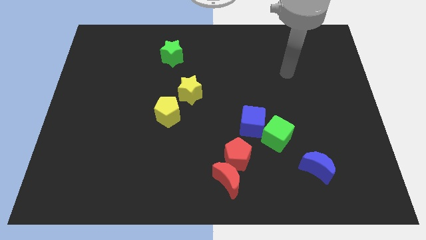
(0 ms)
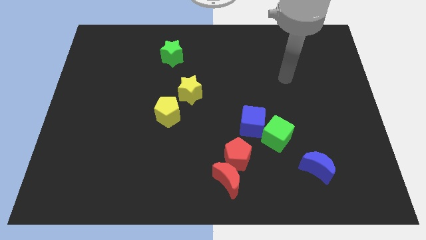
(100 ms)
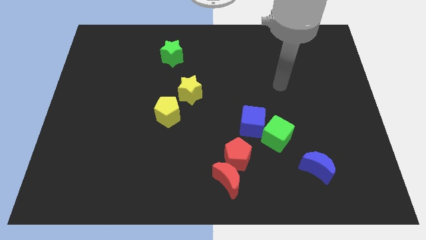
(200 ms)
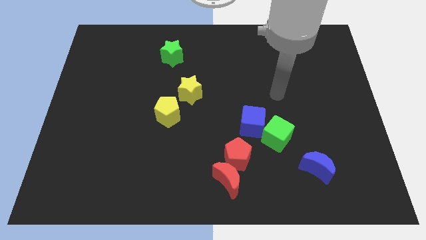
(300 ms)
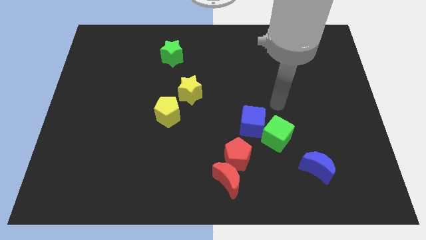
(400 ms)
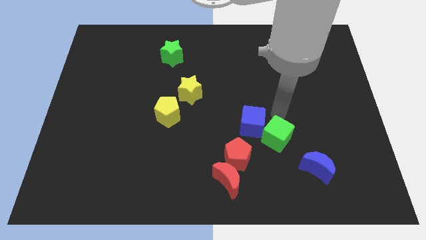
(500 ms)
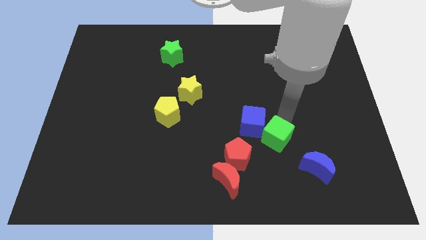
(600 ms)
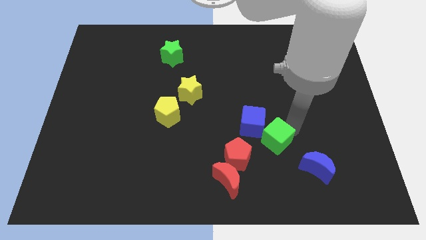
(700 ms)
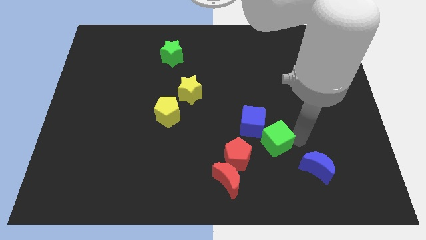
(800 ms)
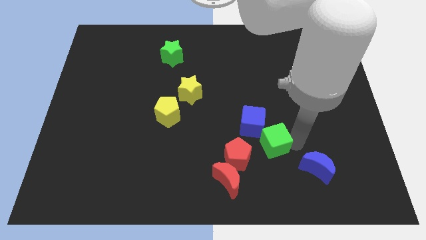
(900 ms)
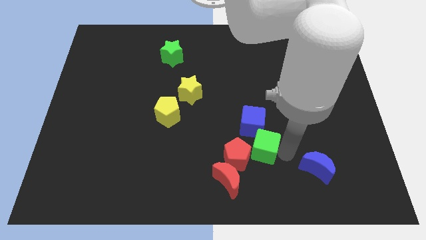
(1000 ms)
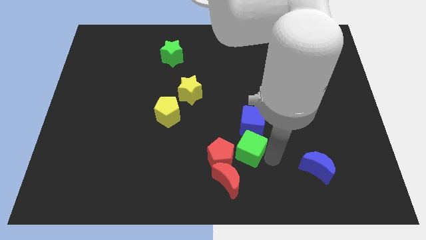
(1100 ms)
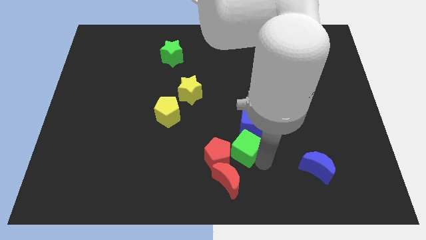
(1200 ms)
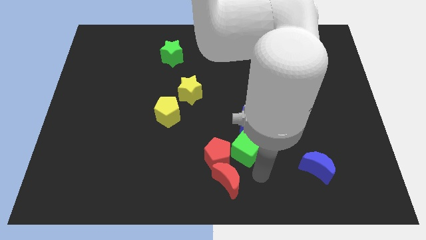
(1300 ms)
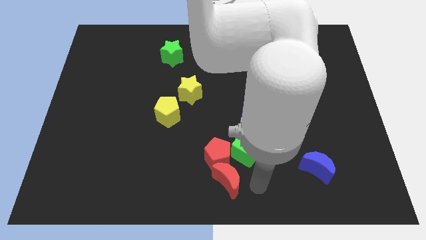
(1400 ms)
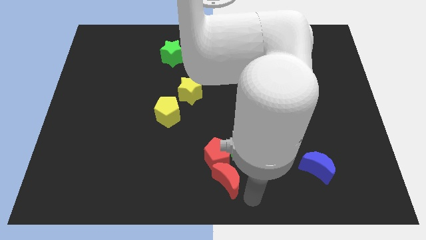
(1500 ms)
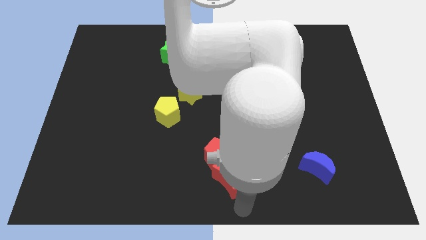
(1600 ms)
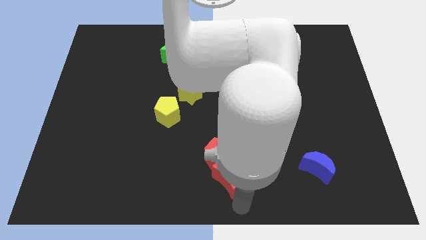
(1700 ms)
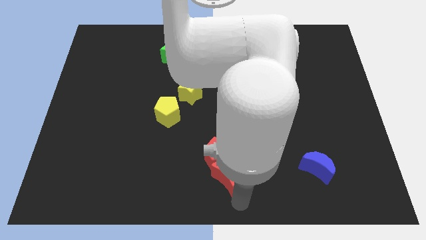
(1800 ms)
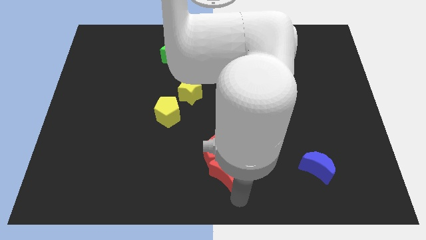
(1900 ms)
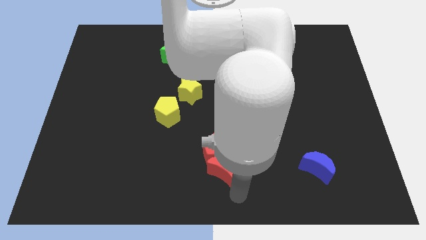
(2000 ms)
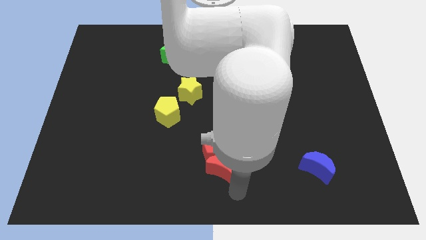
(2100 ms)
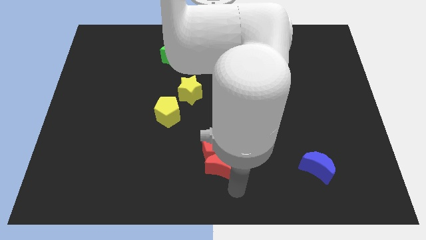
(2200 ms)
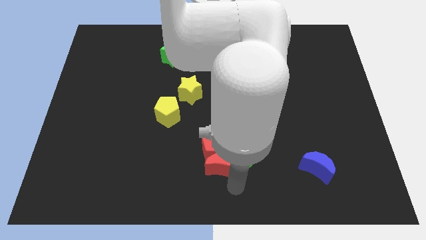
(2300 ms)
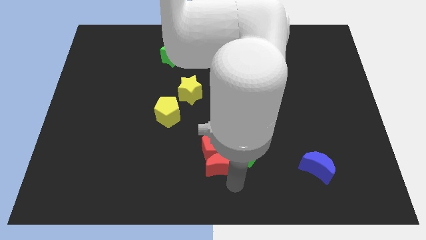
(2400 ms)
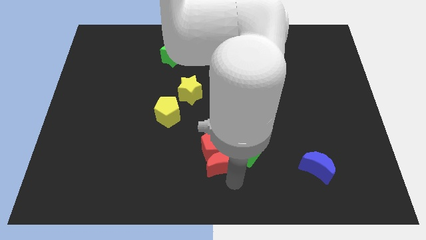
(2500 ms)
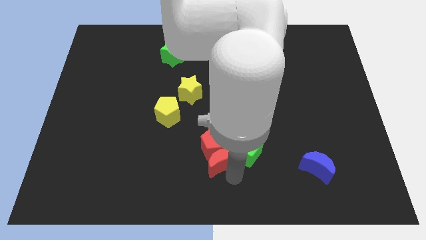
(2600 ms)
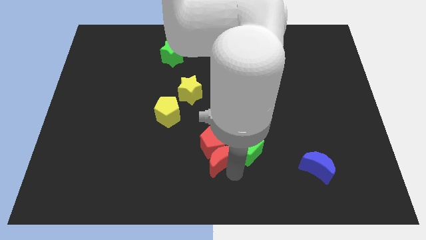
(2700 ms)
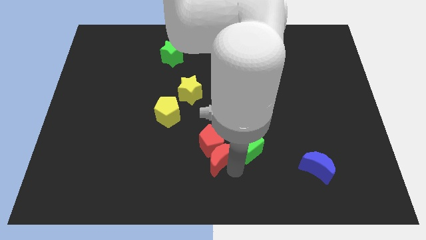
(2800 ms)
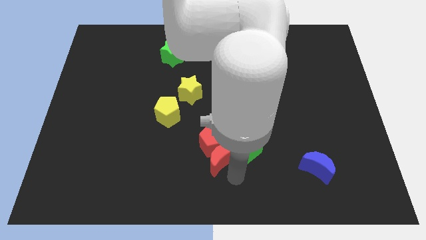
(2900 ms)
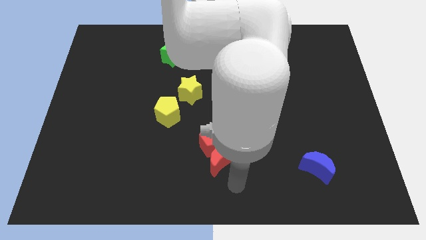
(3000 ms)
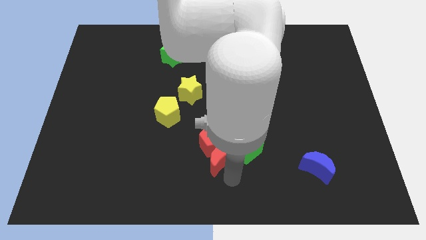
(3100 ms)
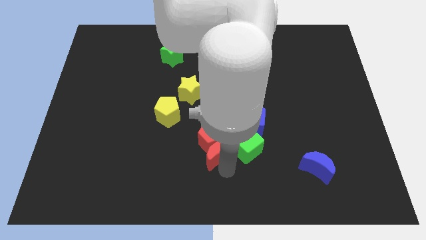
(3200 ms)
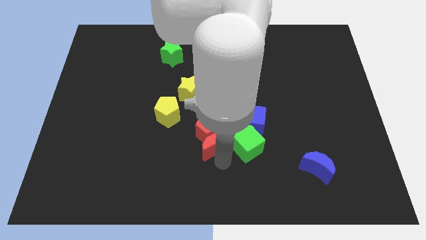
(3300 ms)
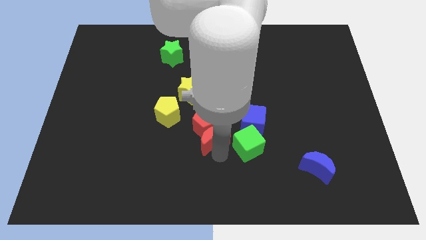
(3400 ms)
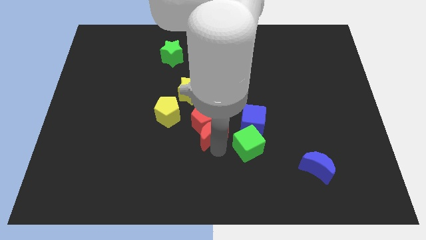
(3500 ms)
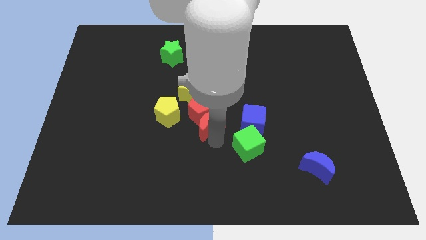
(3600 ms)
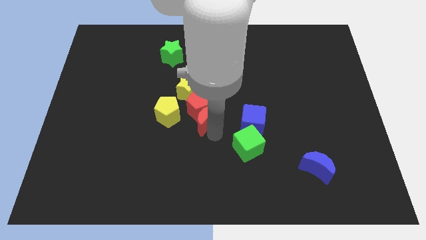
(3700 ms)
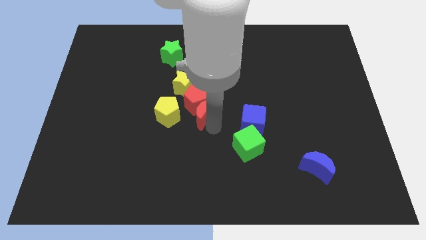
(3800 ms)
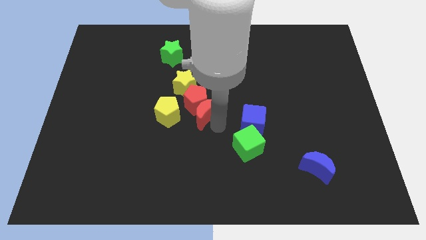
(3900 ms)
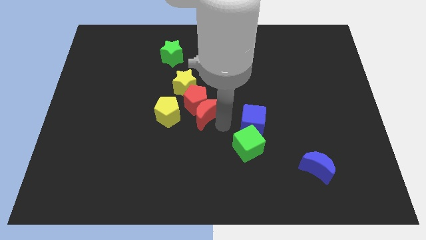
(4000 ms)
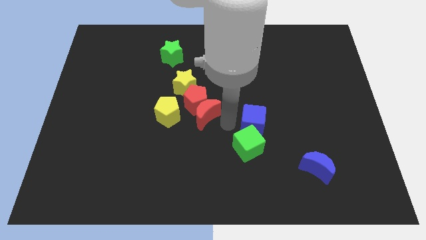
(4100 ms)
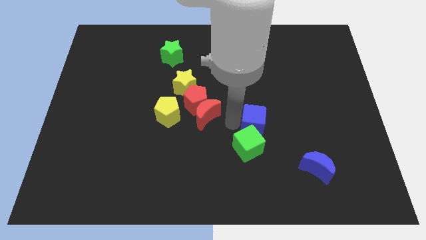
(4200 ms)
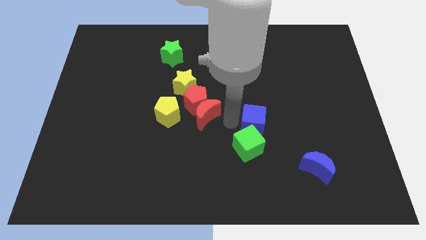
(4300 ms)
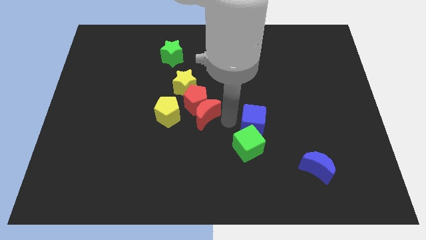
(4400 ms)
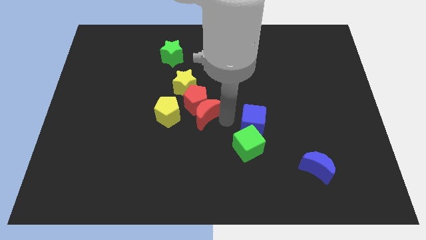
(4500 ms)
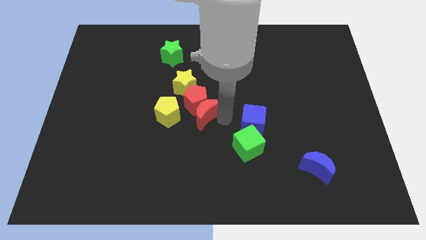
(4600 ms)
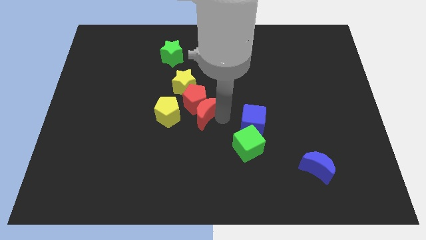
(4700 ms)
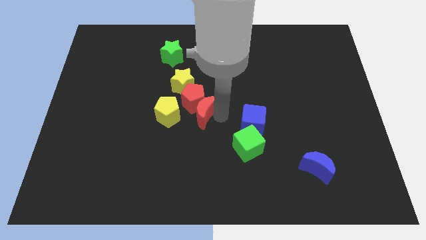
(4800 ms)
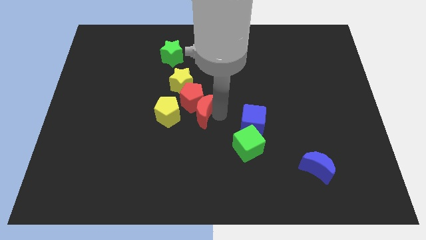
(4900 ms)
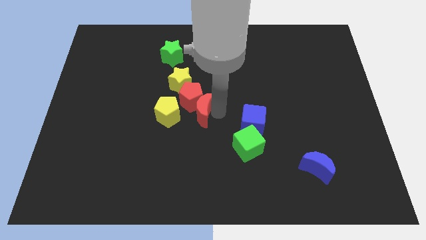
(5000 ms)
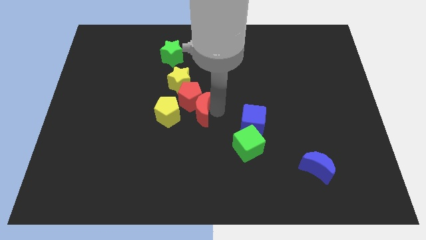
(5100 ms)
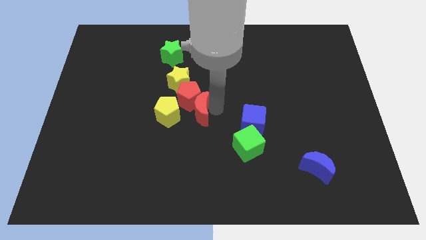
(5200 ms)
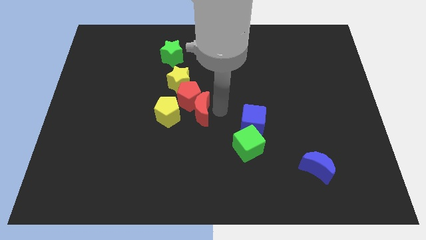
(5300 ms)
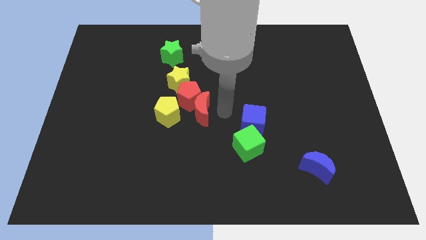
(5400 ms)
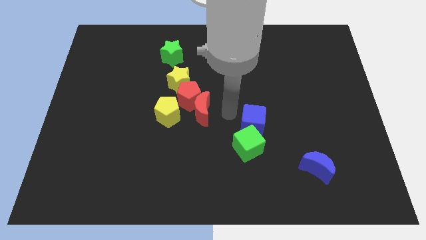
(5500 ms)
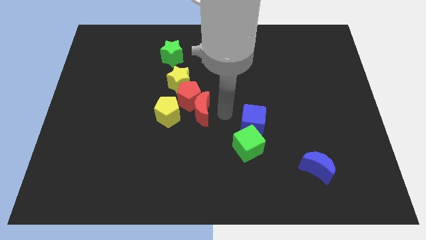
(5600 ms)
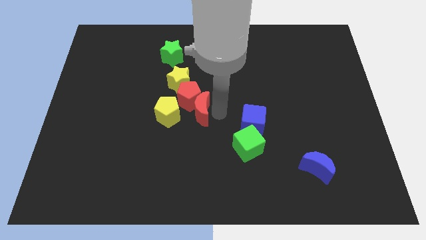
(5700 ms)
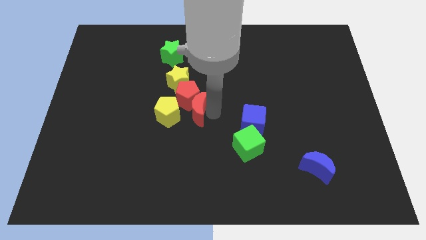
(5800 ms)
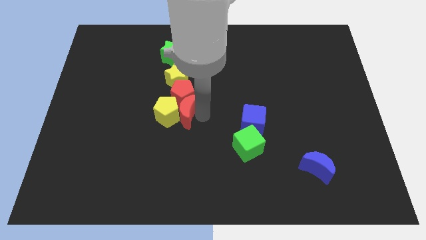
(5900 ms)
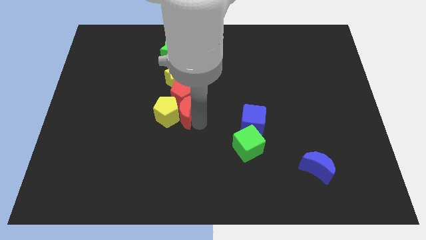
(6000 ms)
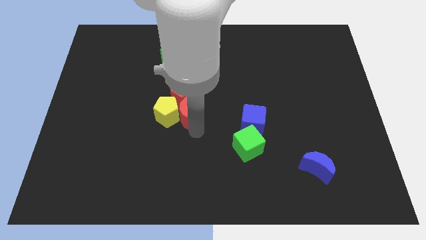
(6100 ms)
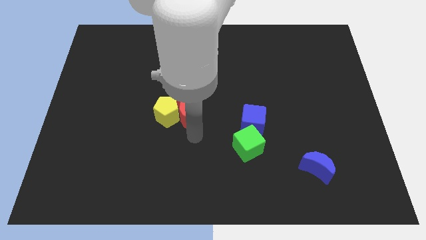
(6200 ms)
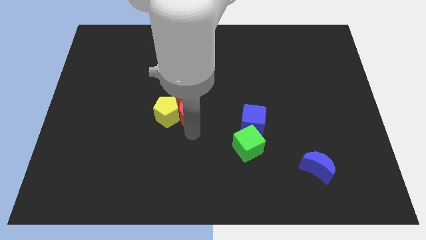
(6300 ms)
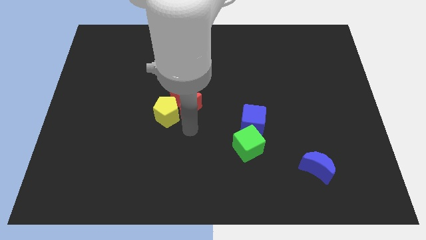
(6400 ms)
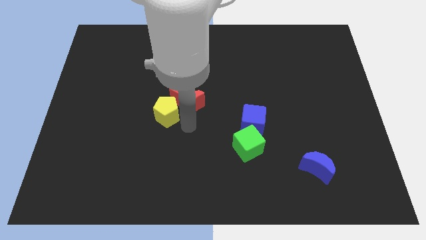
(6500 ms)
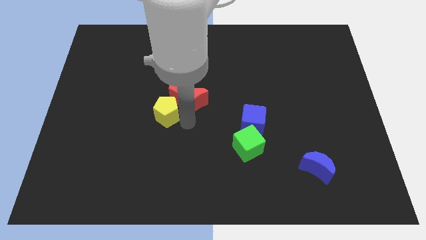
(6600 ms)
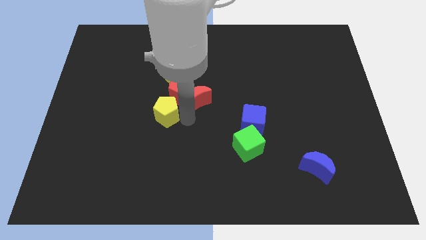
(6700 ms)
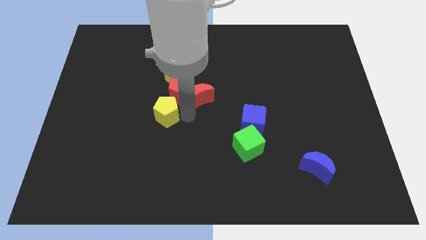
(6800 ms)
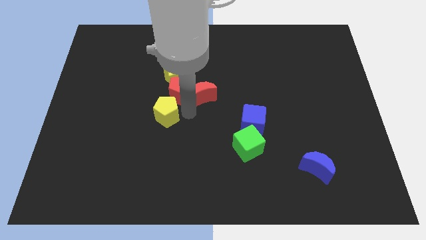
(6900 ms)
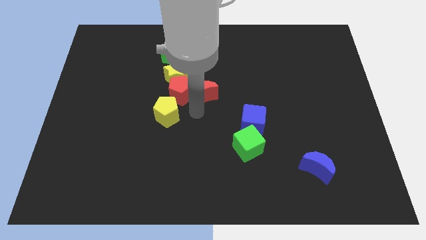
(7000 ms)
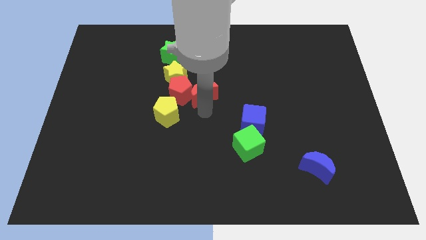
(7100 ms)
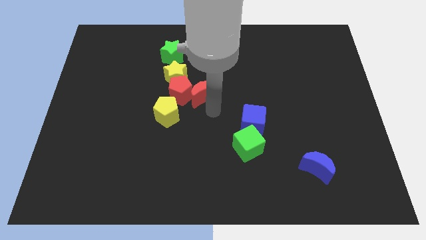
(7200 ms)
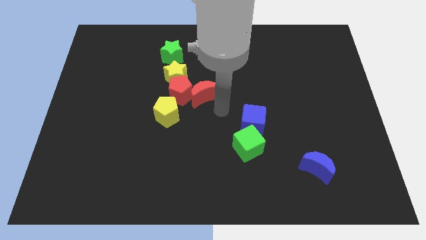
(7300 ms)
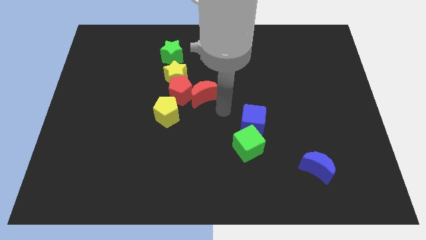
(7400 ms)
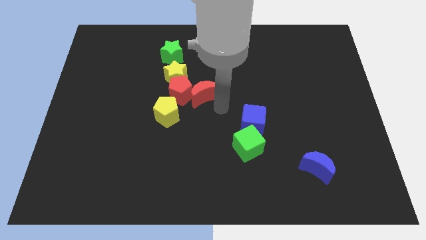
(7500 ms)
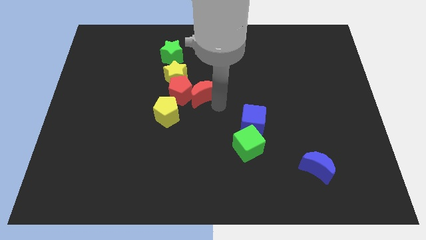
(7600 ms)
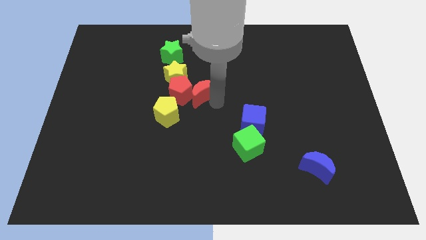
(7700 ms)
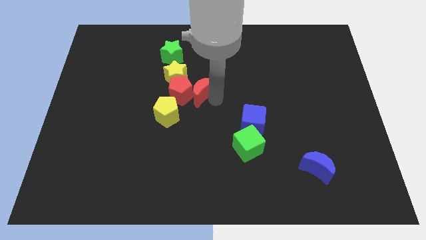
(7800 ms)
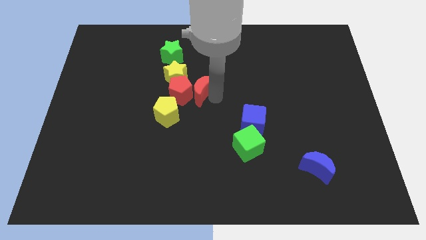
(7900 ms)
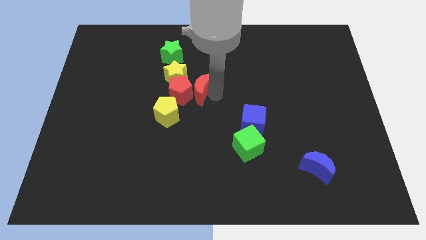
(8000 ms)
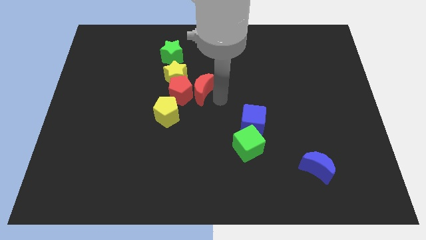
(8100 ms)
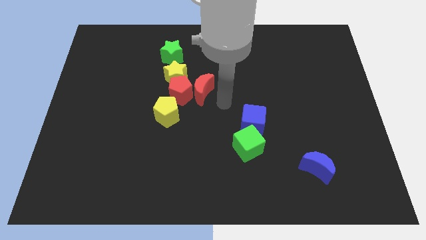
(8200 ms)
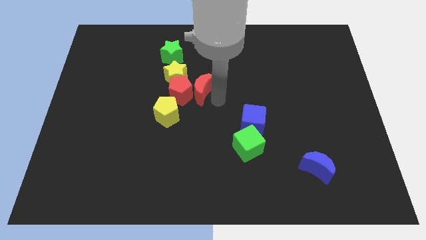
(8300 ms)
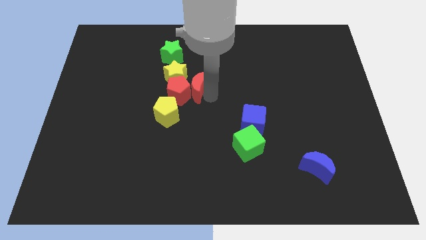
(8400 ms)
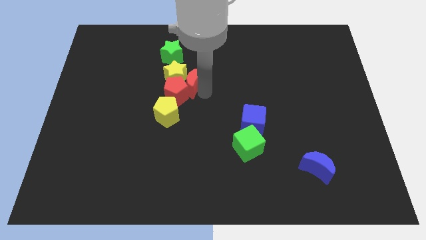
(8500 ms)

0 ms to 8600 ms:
push the red moon towards the yellow star
